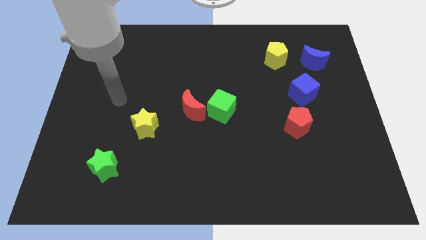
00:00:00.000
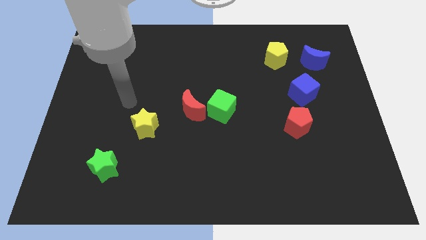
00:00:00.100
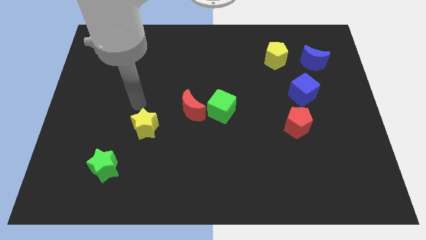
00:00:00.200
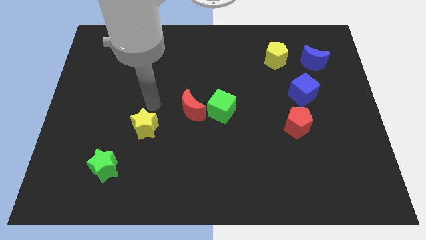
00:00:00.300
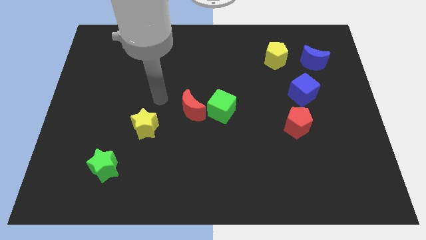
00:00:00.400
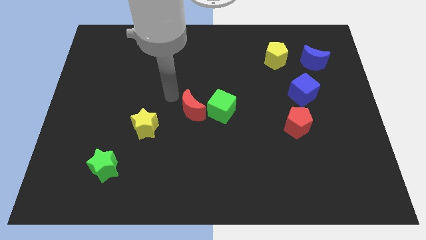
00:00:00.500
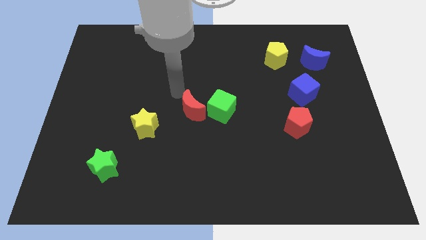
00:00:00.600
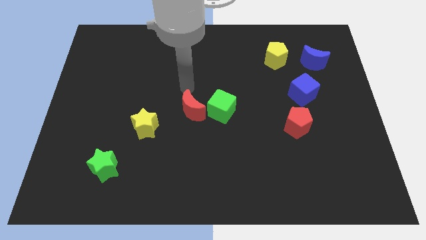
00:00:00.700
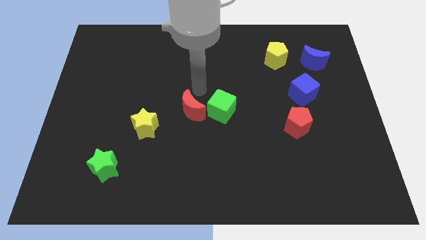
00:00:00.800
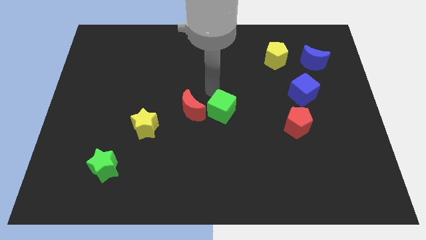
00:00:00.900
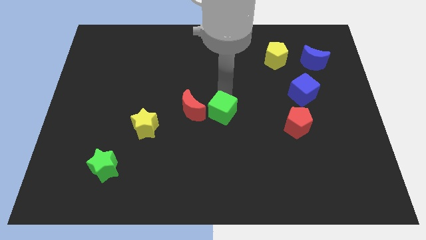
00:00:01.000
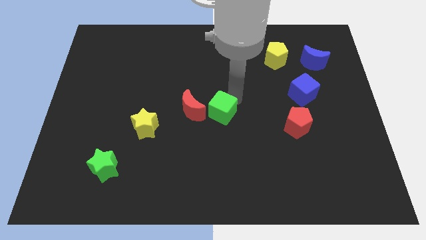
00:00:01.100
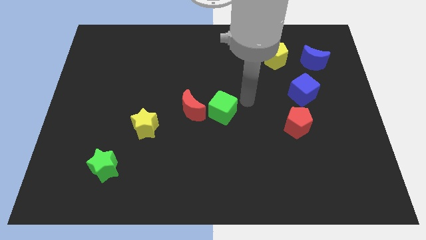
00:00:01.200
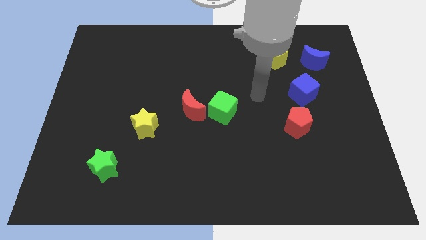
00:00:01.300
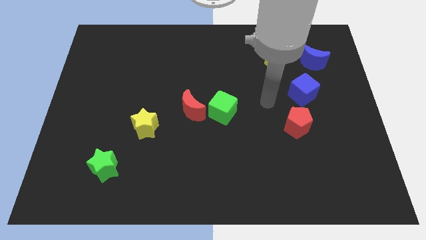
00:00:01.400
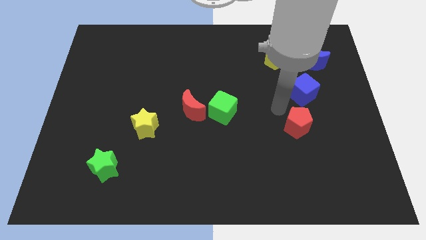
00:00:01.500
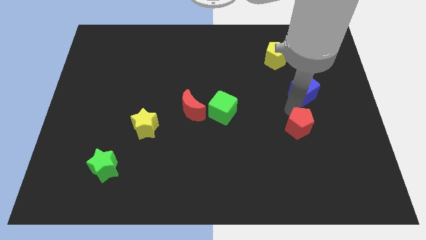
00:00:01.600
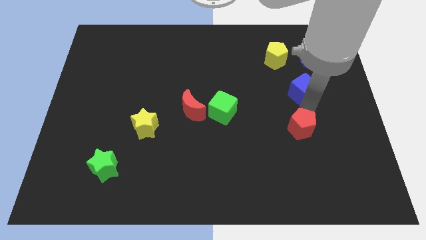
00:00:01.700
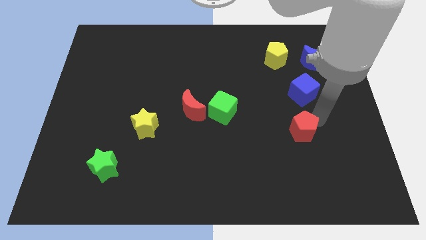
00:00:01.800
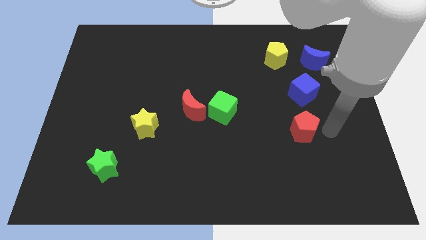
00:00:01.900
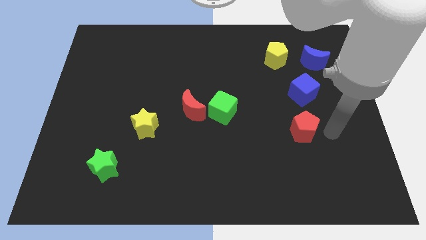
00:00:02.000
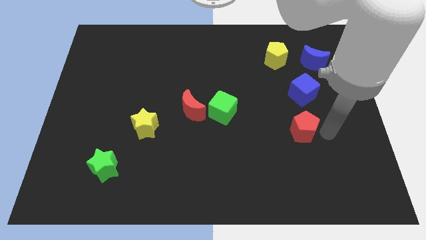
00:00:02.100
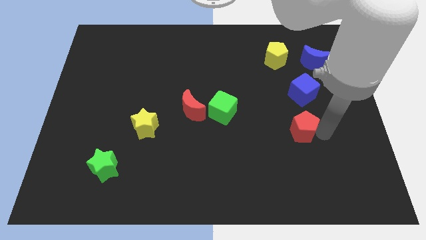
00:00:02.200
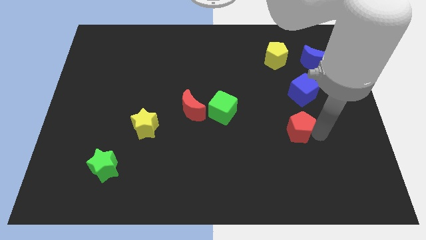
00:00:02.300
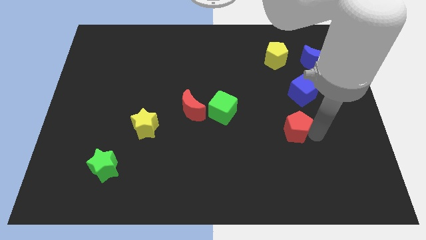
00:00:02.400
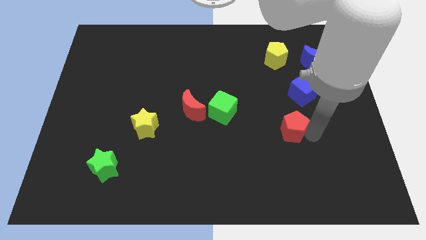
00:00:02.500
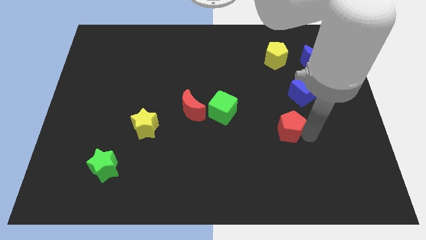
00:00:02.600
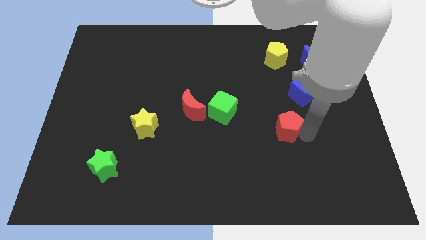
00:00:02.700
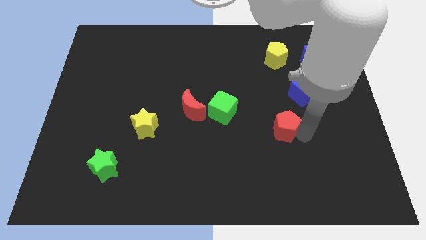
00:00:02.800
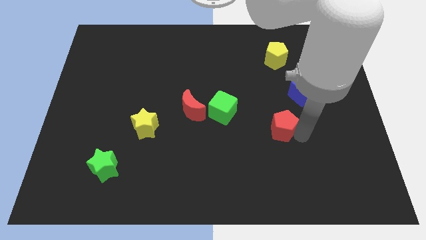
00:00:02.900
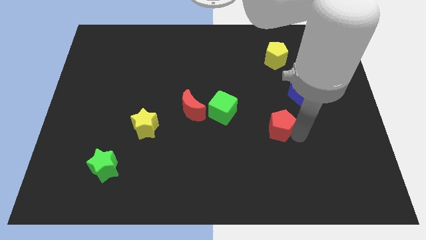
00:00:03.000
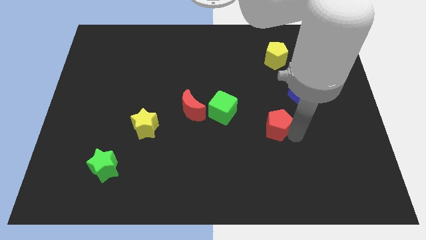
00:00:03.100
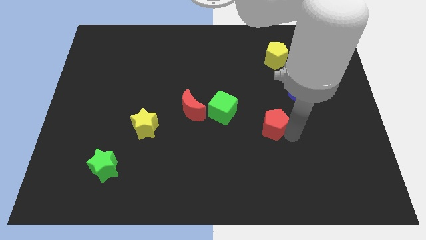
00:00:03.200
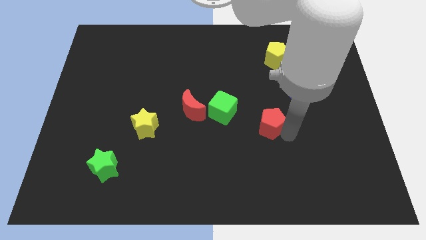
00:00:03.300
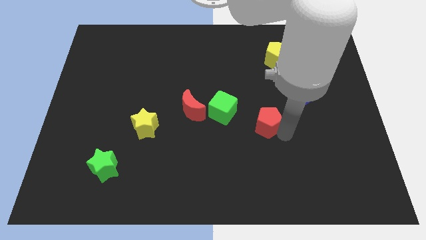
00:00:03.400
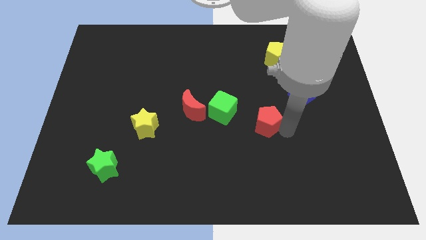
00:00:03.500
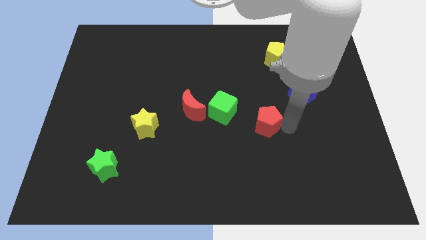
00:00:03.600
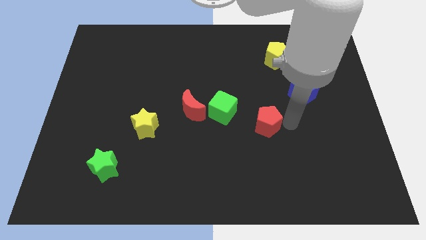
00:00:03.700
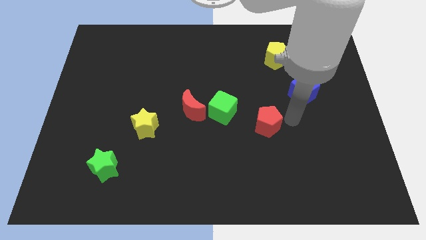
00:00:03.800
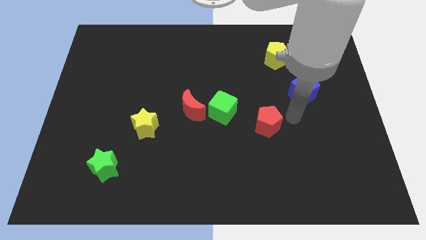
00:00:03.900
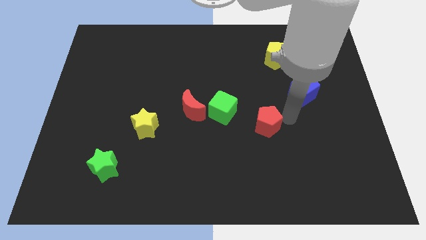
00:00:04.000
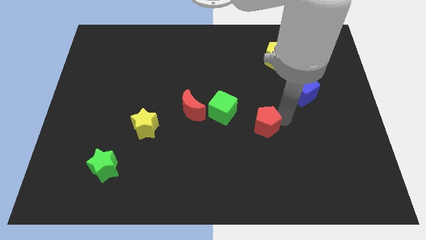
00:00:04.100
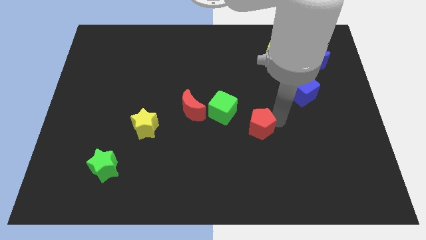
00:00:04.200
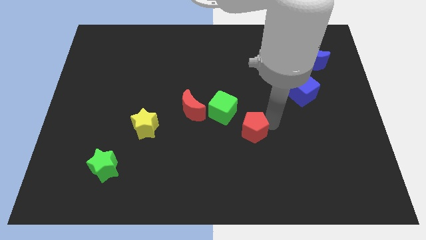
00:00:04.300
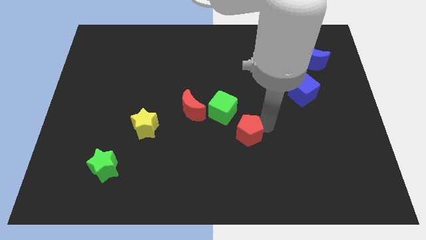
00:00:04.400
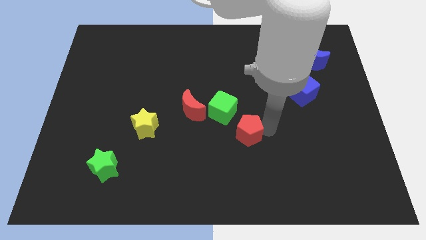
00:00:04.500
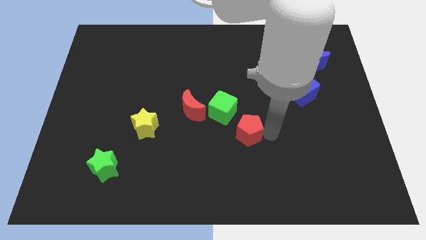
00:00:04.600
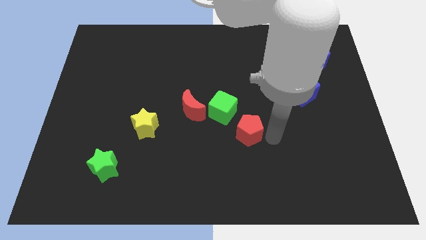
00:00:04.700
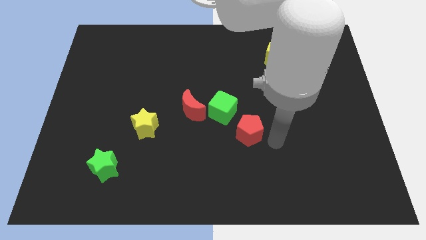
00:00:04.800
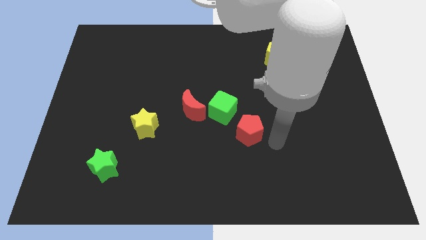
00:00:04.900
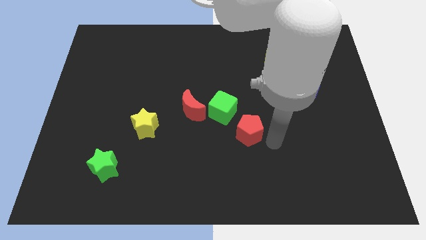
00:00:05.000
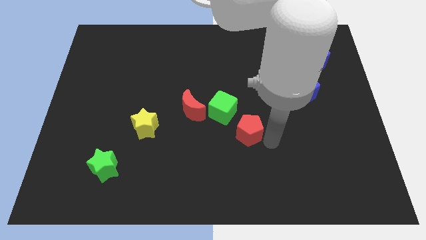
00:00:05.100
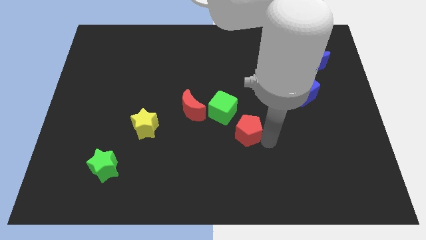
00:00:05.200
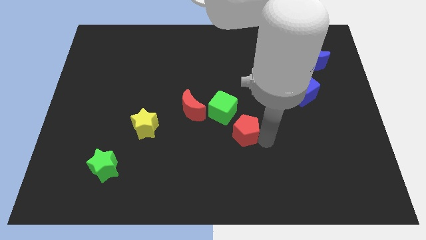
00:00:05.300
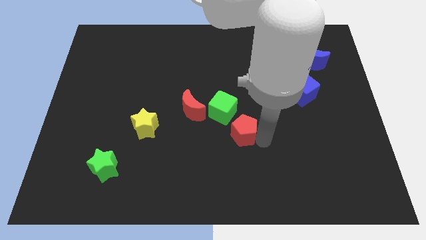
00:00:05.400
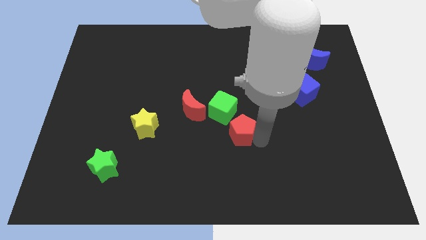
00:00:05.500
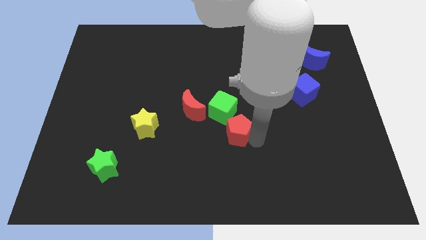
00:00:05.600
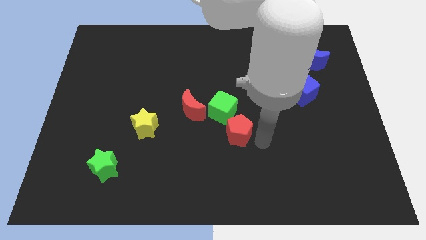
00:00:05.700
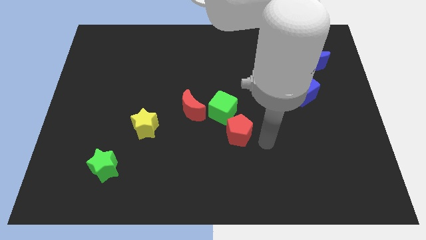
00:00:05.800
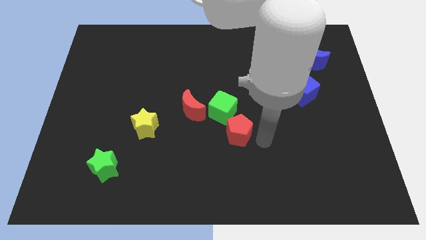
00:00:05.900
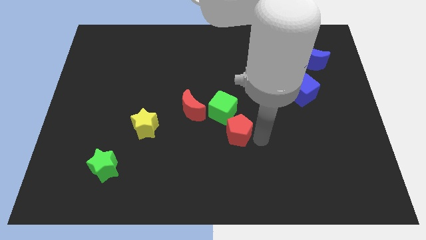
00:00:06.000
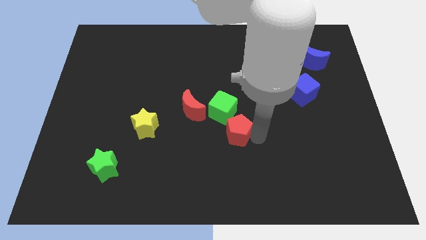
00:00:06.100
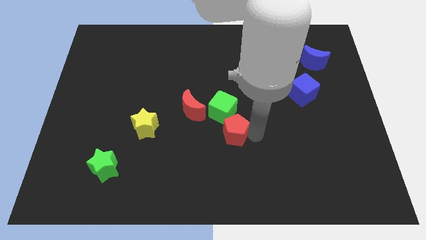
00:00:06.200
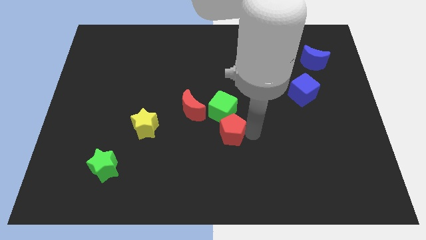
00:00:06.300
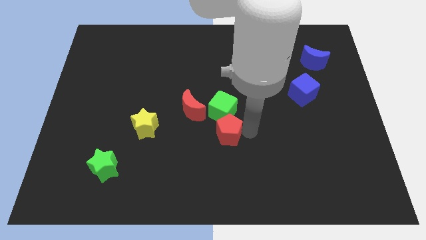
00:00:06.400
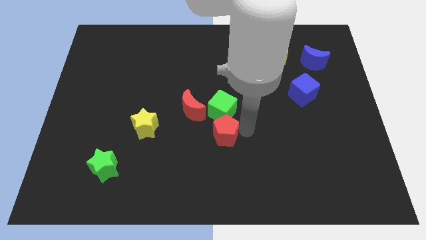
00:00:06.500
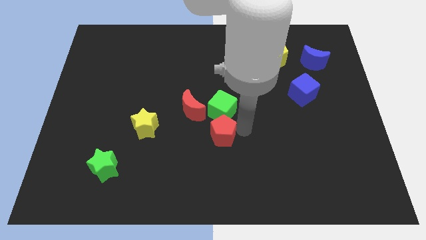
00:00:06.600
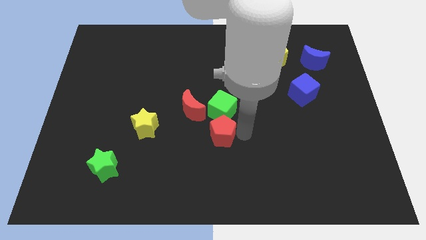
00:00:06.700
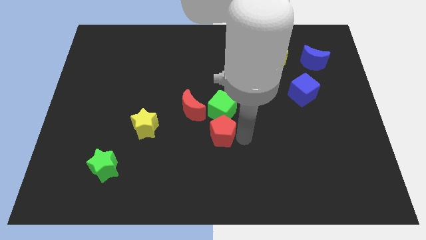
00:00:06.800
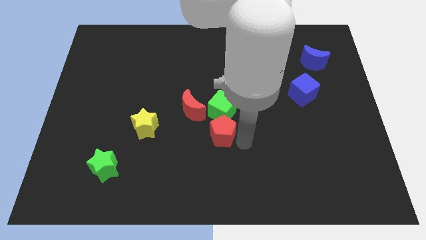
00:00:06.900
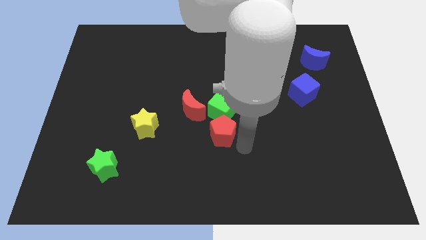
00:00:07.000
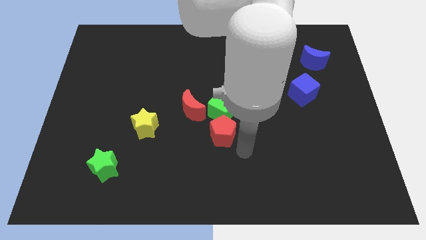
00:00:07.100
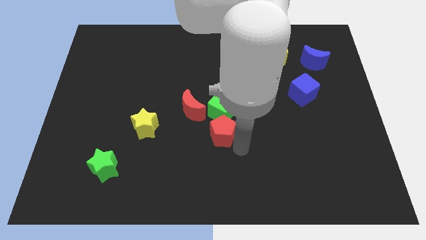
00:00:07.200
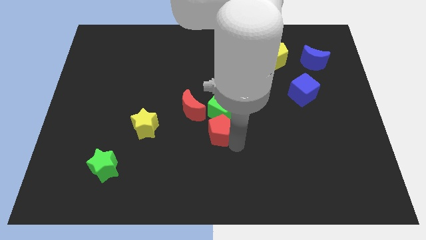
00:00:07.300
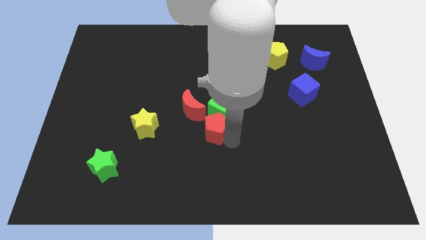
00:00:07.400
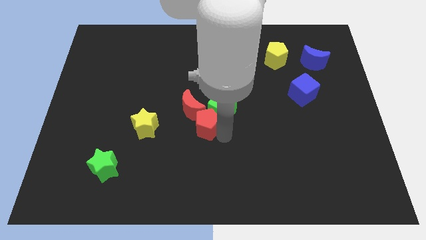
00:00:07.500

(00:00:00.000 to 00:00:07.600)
push the red pentagon to the red moon
